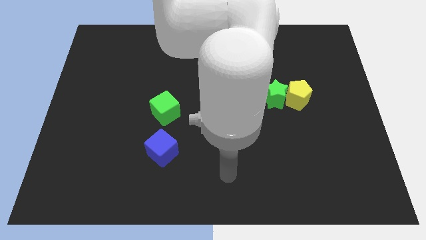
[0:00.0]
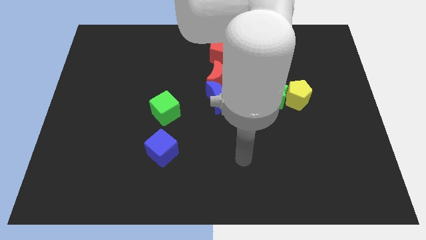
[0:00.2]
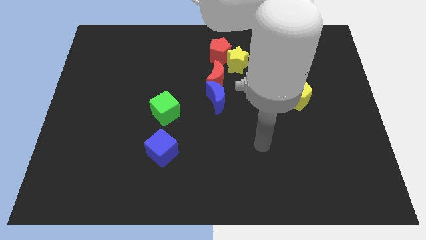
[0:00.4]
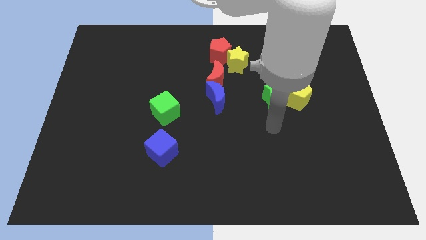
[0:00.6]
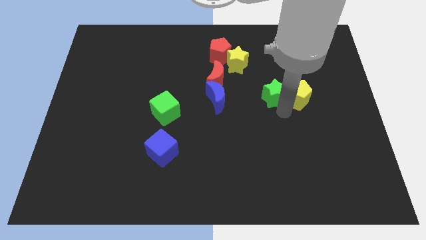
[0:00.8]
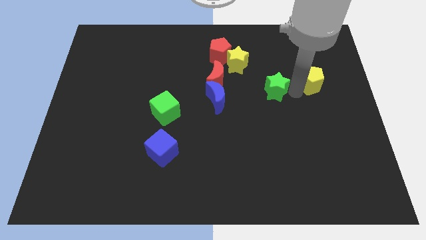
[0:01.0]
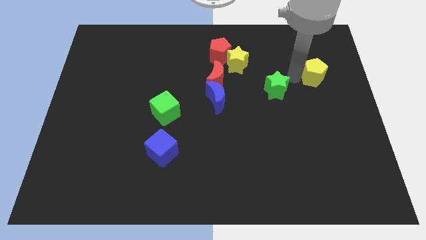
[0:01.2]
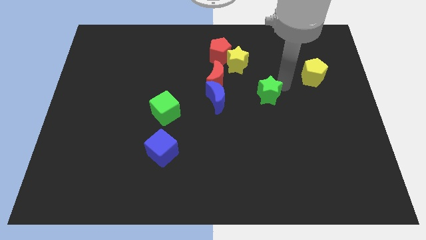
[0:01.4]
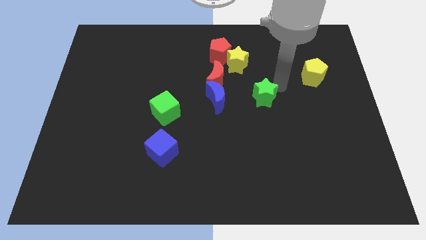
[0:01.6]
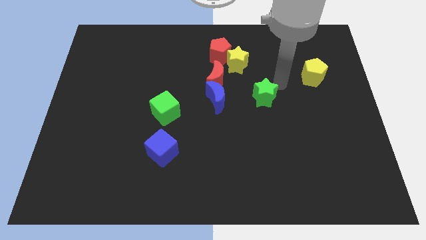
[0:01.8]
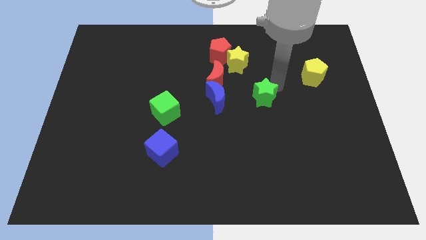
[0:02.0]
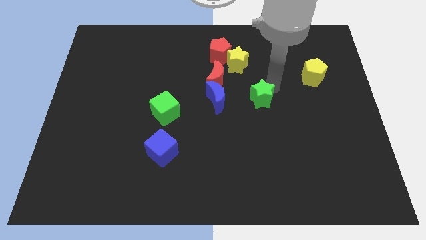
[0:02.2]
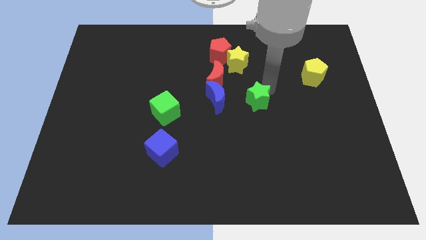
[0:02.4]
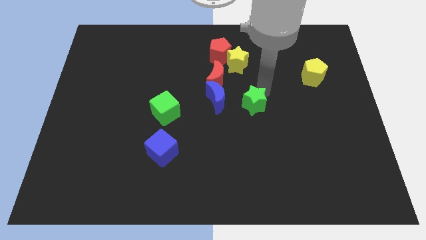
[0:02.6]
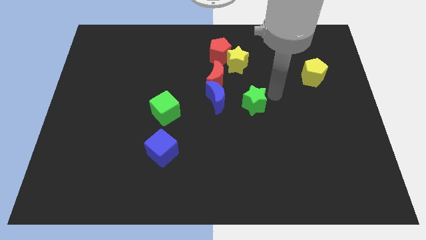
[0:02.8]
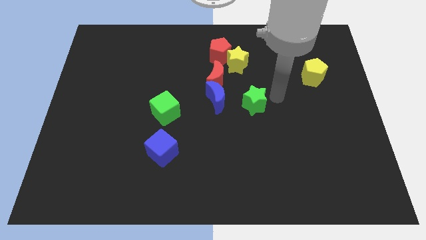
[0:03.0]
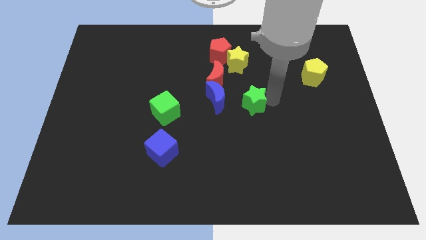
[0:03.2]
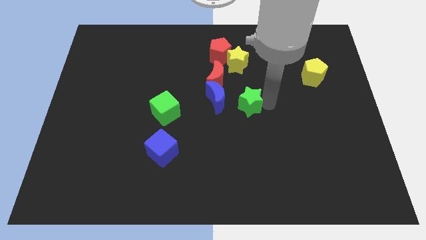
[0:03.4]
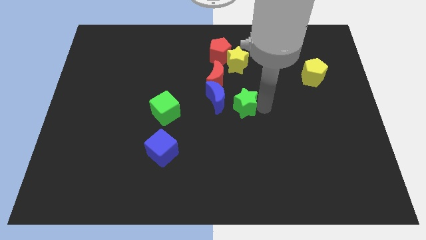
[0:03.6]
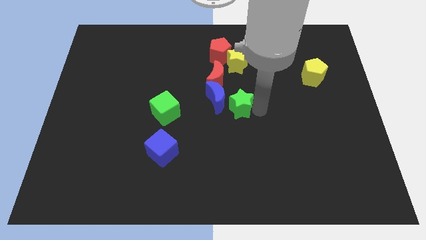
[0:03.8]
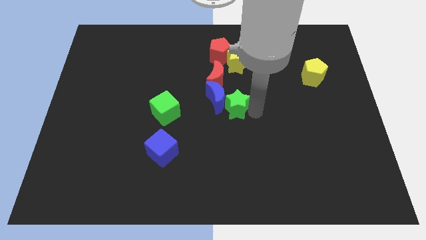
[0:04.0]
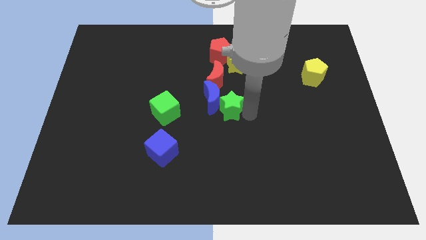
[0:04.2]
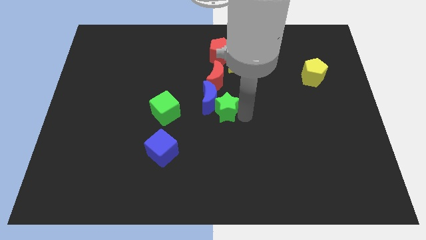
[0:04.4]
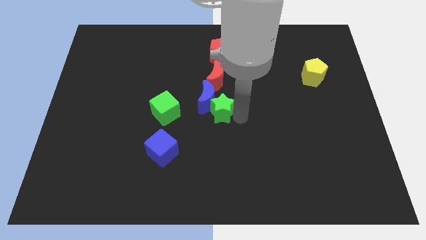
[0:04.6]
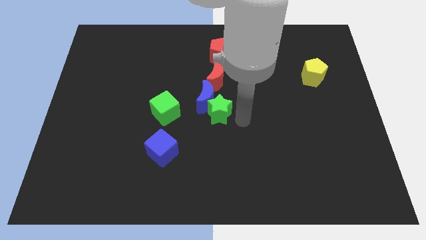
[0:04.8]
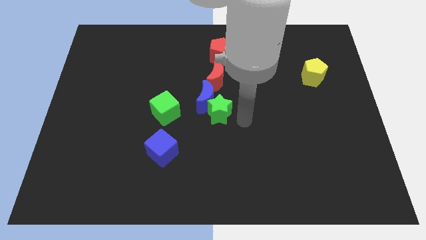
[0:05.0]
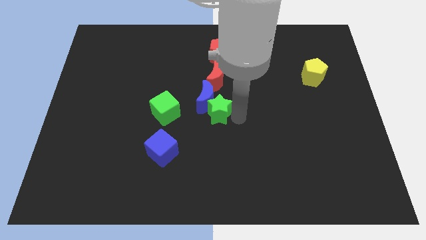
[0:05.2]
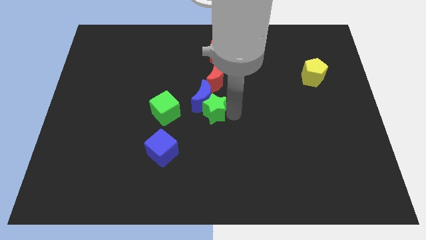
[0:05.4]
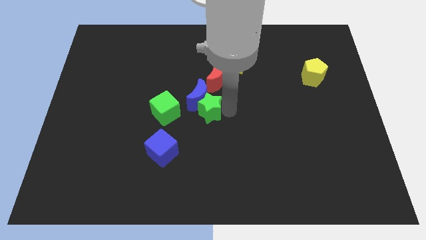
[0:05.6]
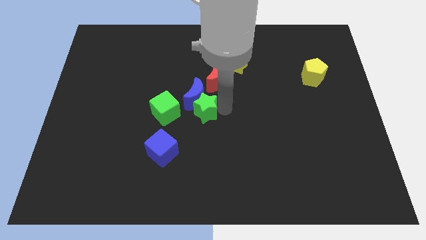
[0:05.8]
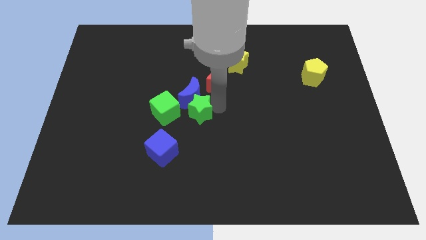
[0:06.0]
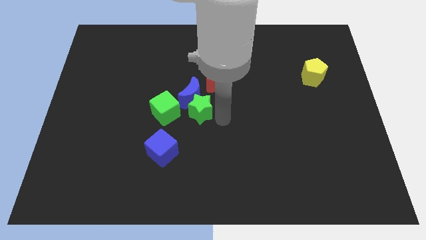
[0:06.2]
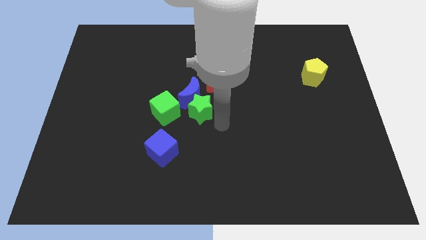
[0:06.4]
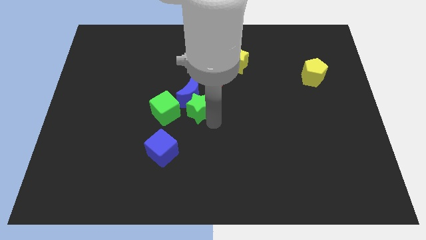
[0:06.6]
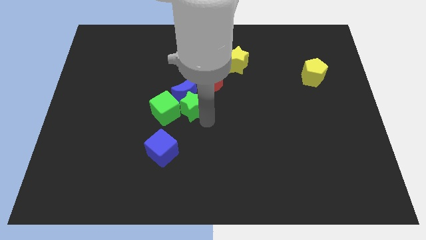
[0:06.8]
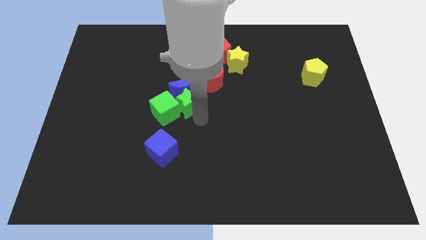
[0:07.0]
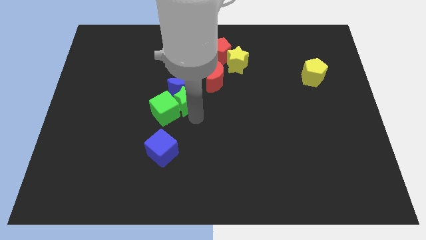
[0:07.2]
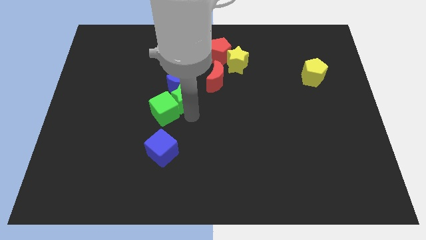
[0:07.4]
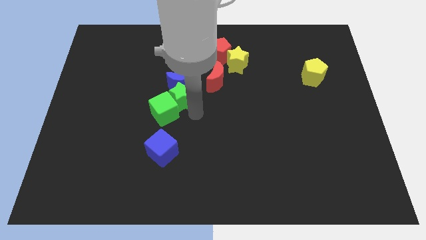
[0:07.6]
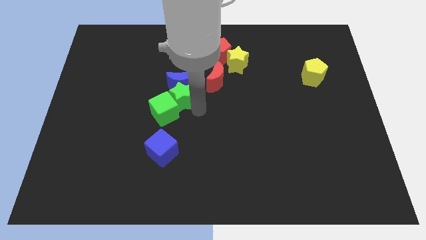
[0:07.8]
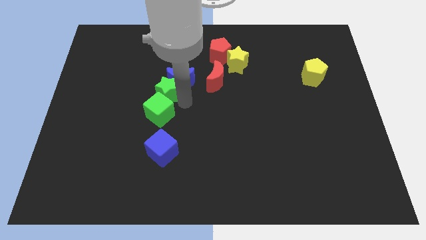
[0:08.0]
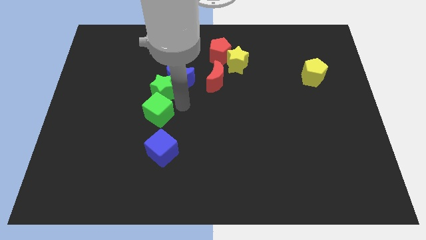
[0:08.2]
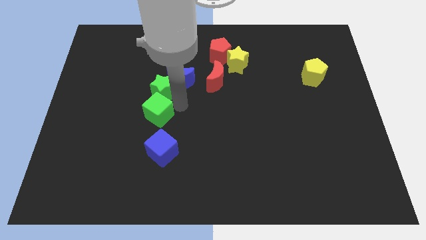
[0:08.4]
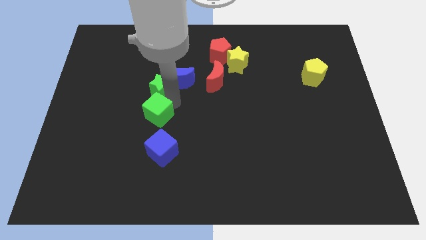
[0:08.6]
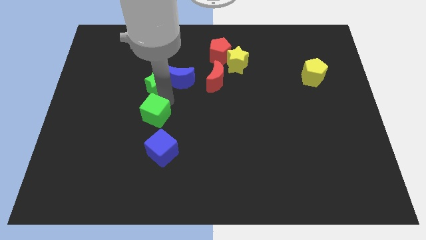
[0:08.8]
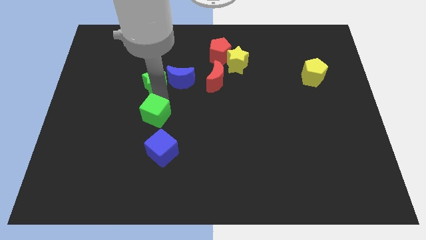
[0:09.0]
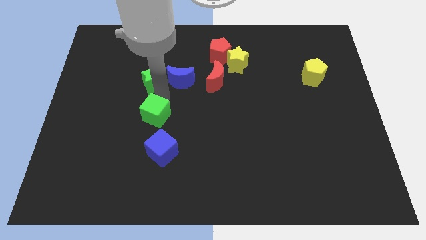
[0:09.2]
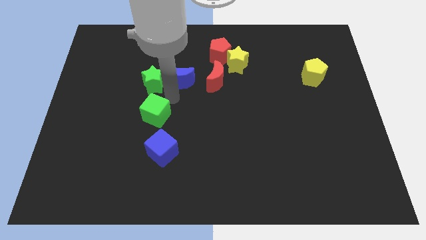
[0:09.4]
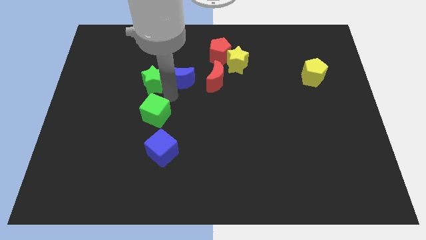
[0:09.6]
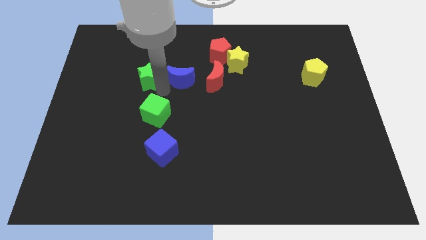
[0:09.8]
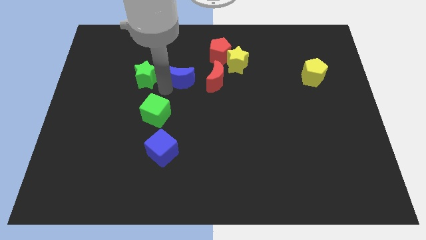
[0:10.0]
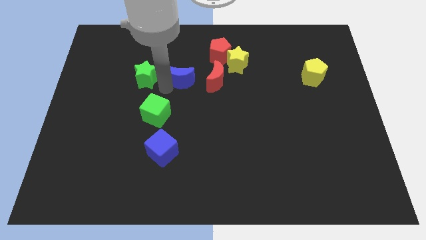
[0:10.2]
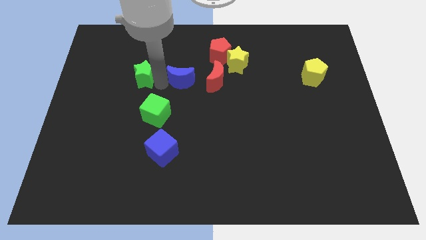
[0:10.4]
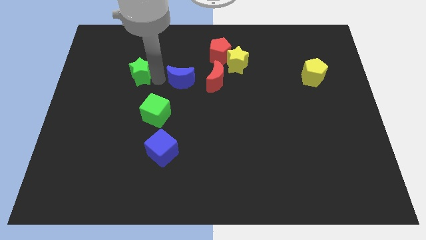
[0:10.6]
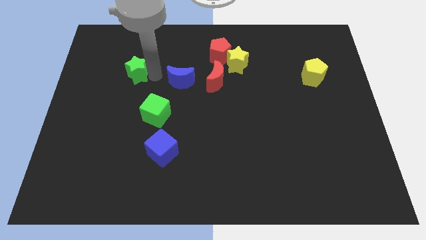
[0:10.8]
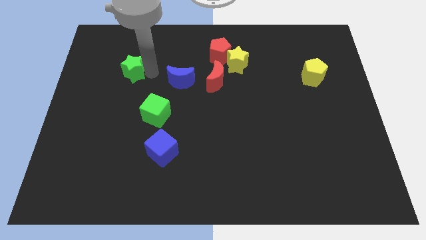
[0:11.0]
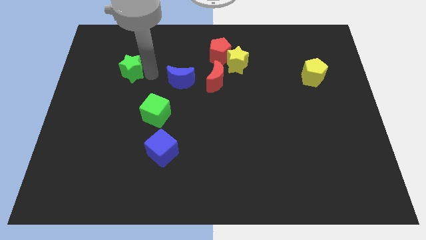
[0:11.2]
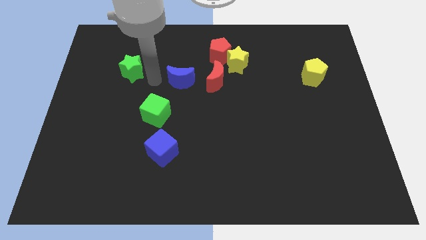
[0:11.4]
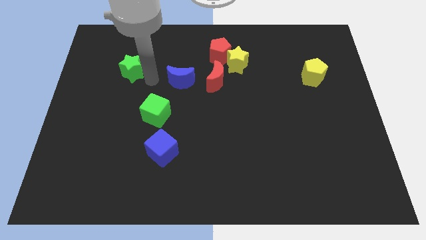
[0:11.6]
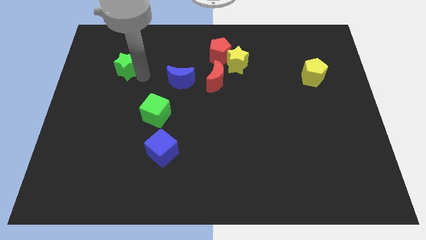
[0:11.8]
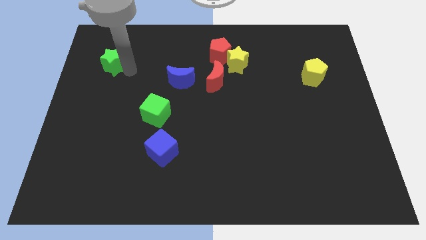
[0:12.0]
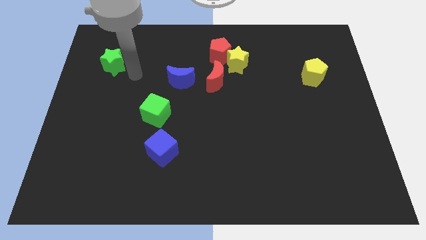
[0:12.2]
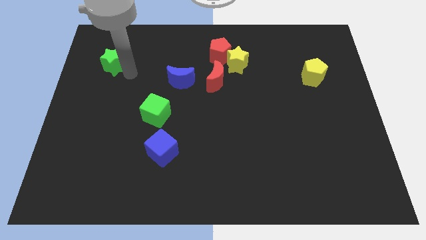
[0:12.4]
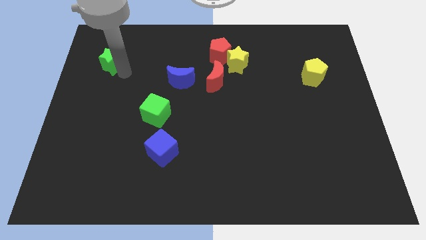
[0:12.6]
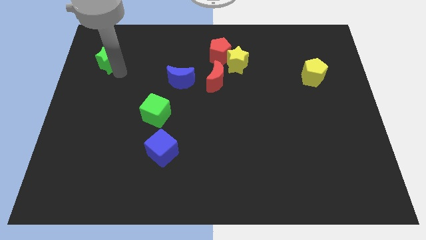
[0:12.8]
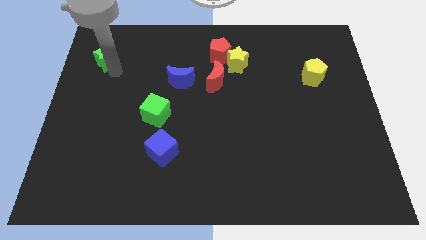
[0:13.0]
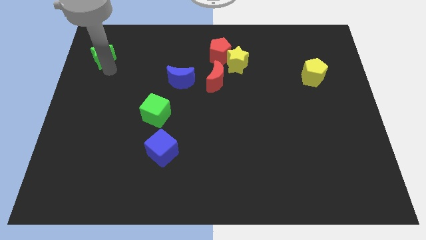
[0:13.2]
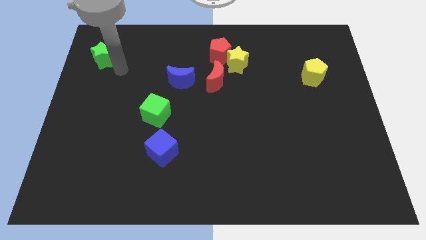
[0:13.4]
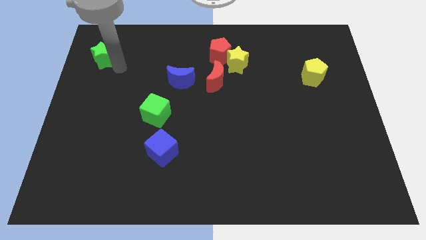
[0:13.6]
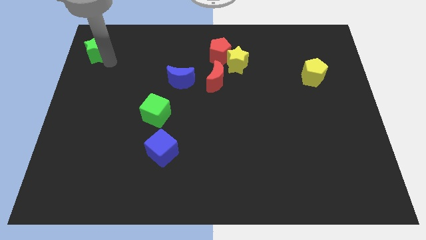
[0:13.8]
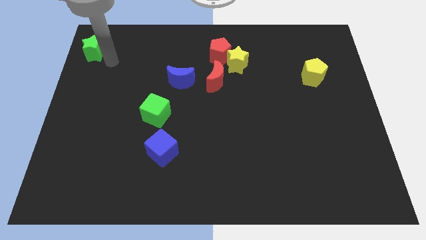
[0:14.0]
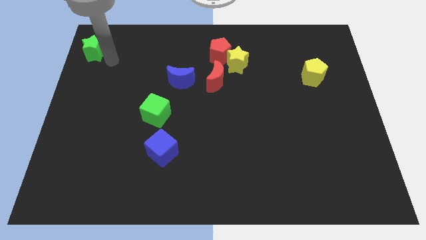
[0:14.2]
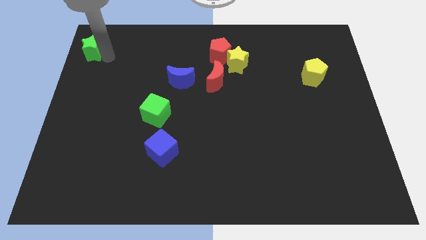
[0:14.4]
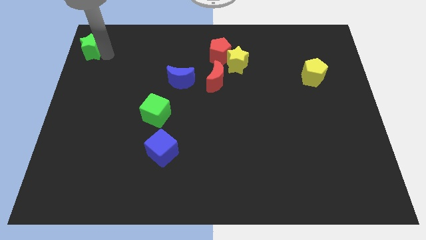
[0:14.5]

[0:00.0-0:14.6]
slide the green star to the top left corner
